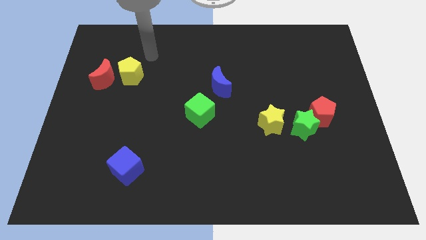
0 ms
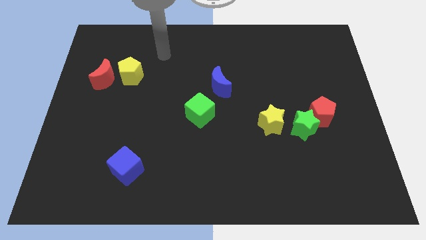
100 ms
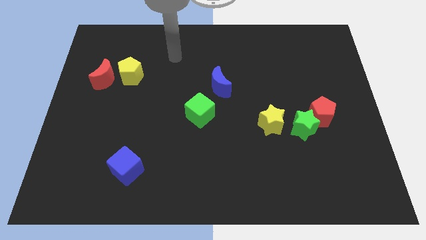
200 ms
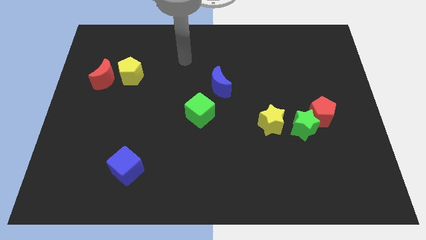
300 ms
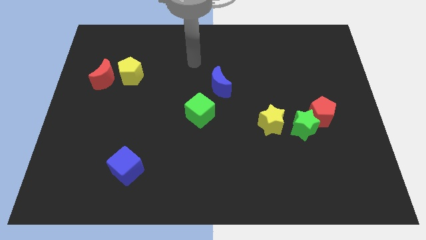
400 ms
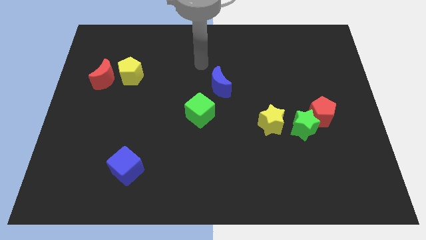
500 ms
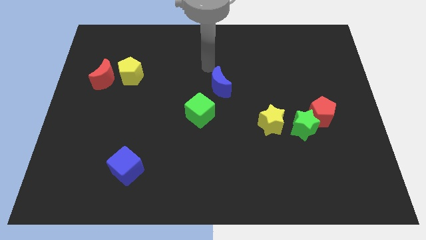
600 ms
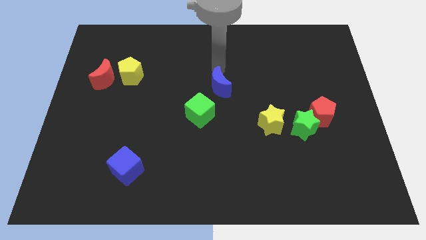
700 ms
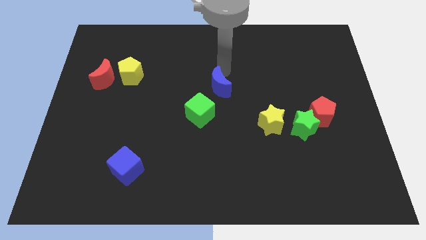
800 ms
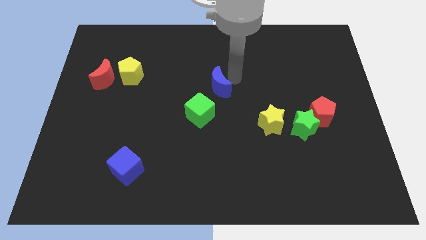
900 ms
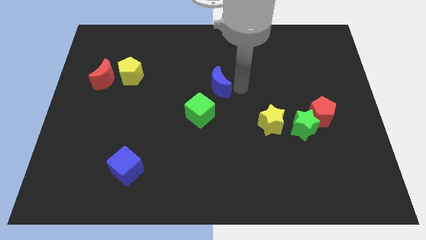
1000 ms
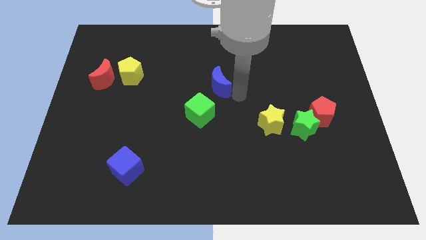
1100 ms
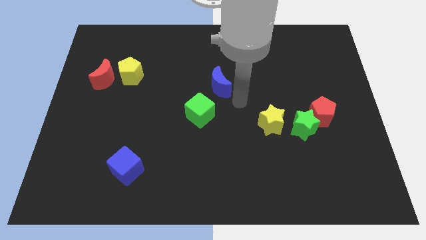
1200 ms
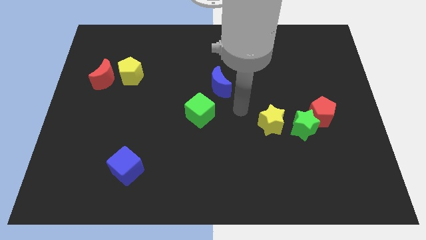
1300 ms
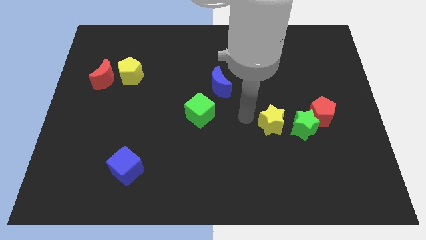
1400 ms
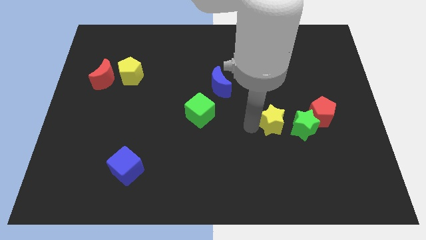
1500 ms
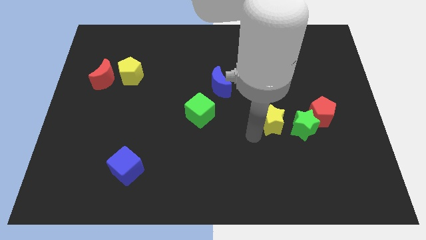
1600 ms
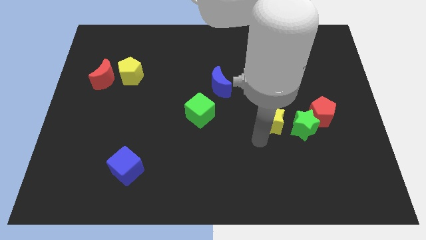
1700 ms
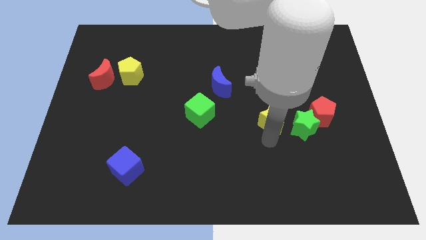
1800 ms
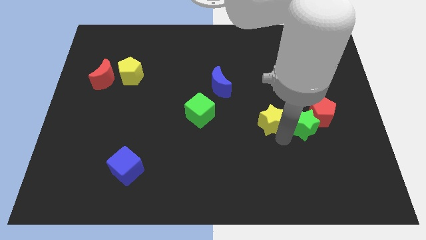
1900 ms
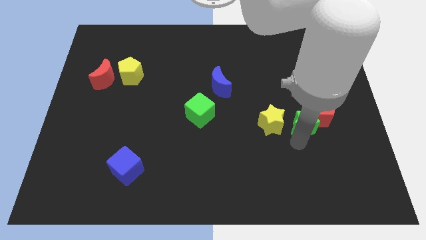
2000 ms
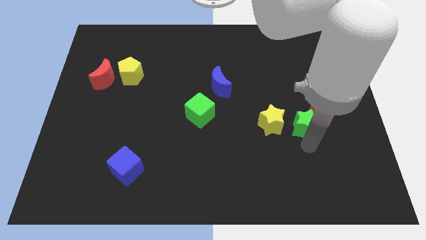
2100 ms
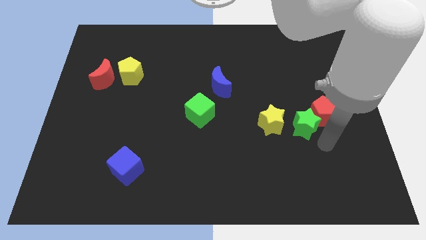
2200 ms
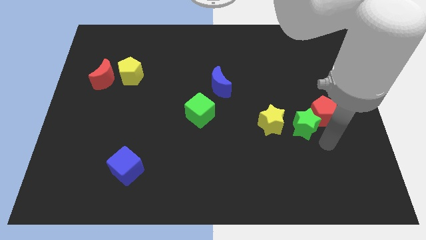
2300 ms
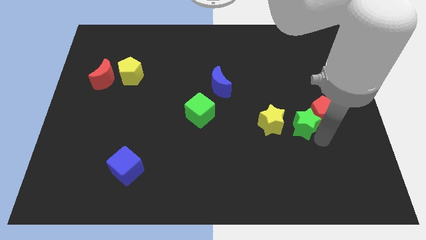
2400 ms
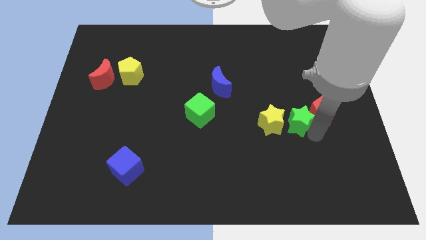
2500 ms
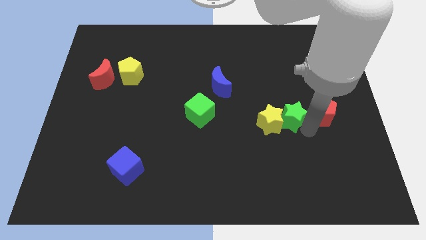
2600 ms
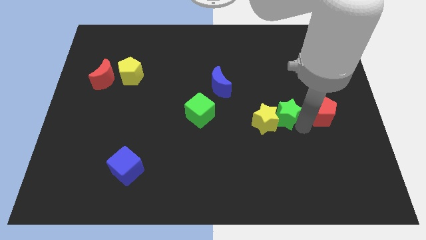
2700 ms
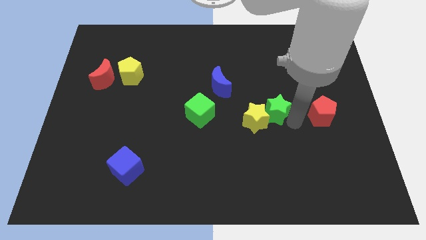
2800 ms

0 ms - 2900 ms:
push the green star up and then left a bit

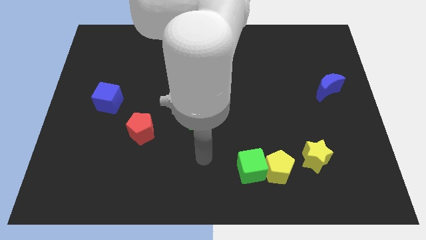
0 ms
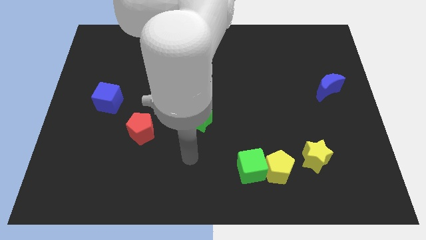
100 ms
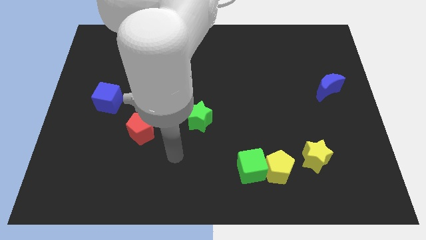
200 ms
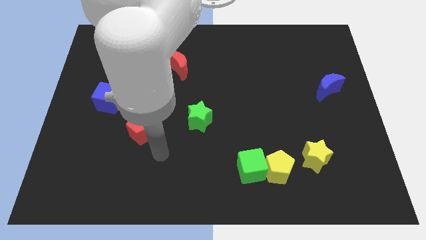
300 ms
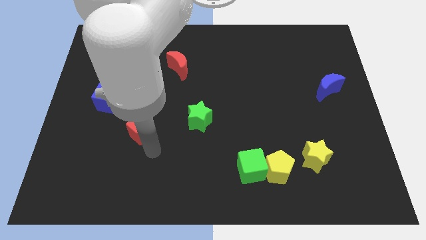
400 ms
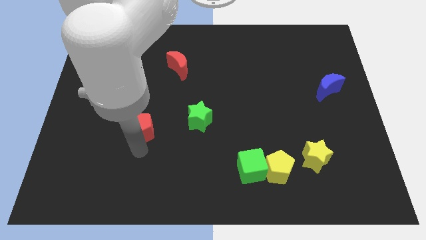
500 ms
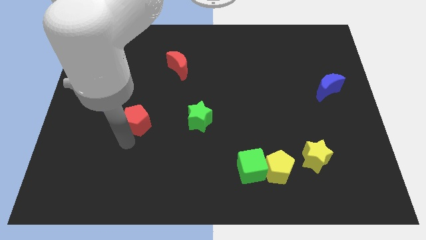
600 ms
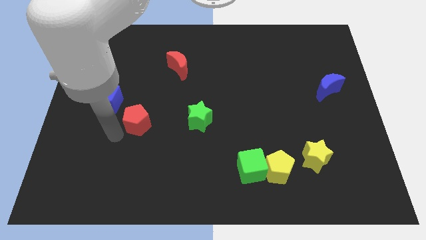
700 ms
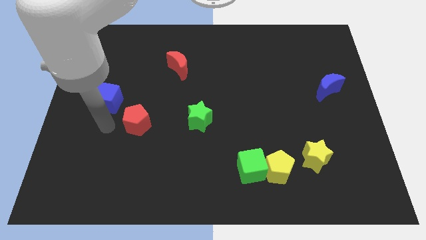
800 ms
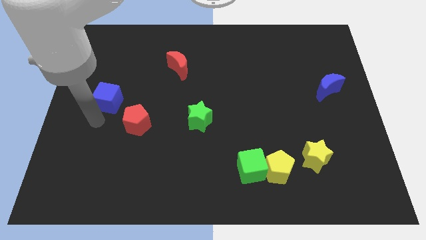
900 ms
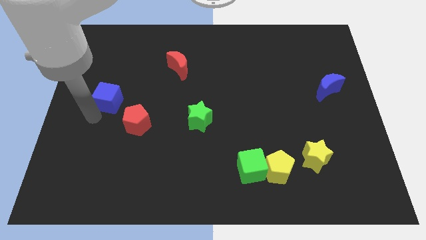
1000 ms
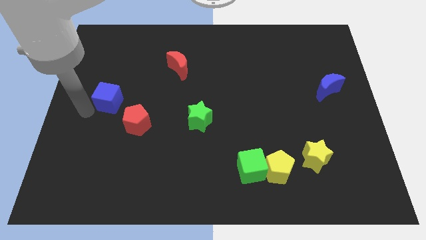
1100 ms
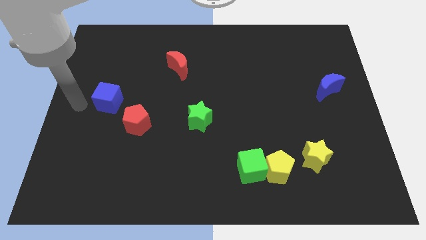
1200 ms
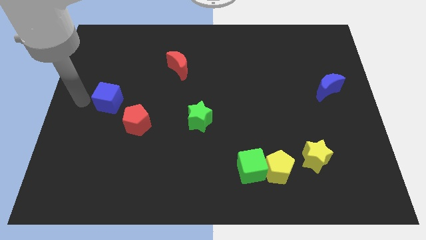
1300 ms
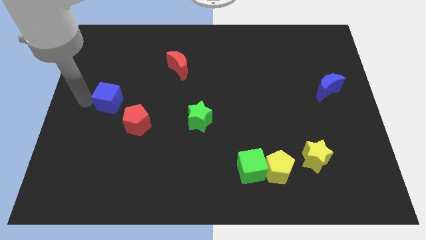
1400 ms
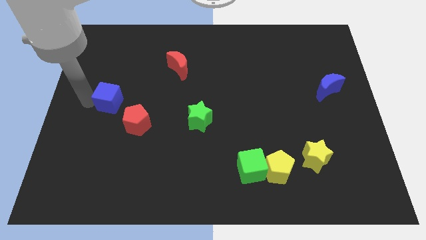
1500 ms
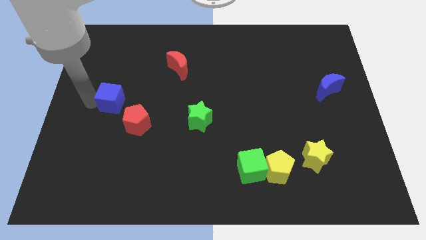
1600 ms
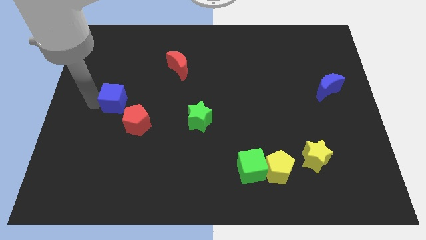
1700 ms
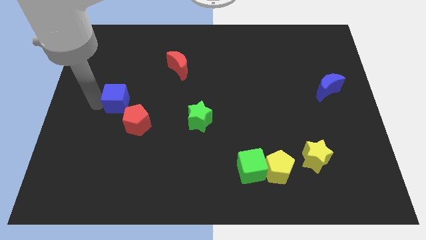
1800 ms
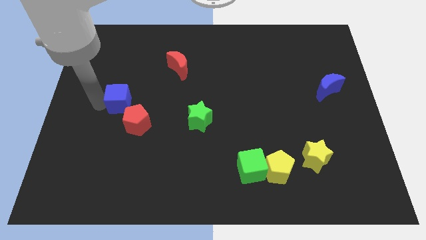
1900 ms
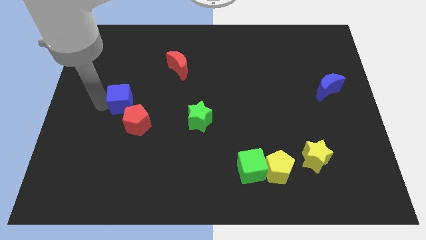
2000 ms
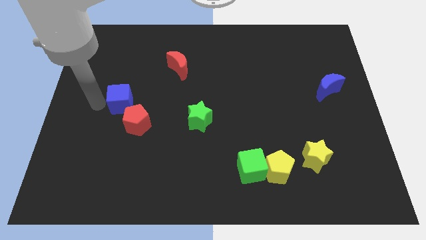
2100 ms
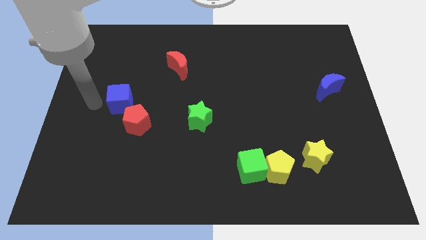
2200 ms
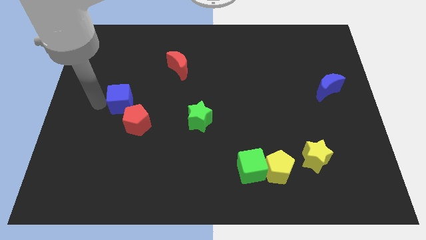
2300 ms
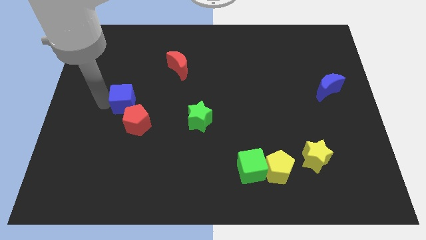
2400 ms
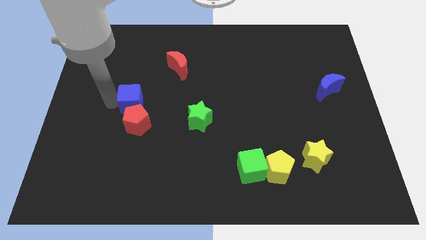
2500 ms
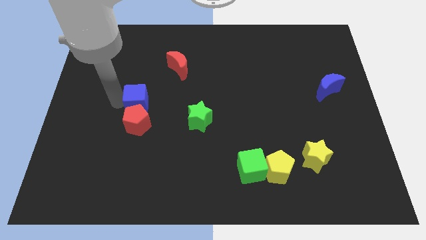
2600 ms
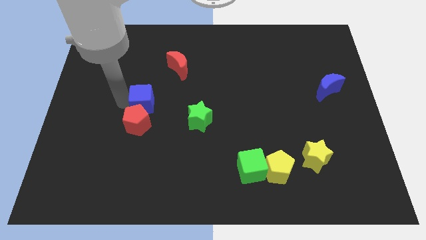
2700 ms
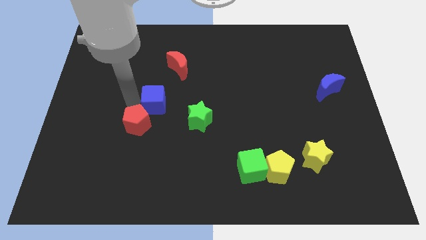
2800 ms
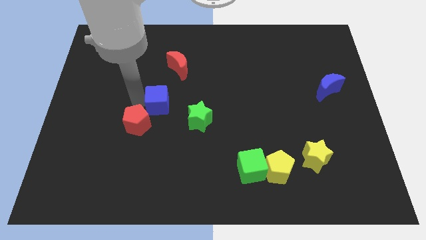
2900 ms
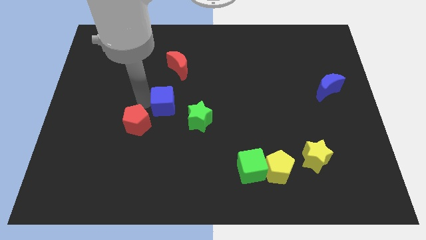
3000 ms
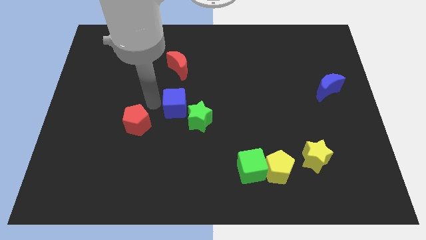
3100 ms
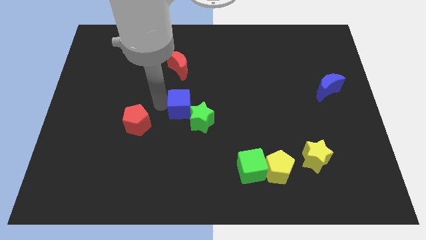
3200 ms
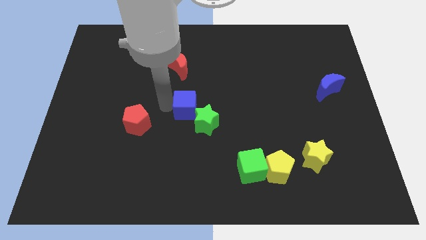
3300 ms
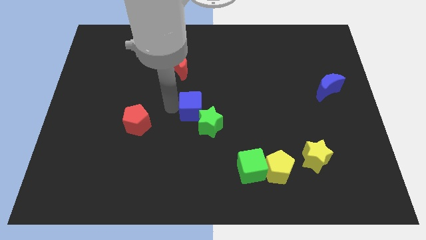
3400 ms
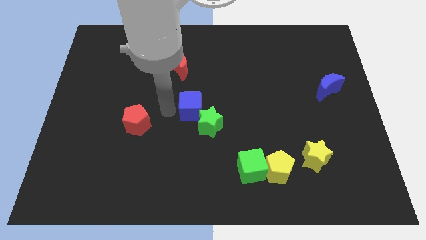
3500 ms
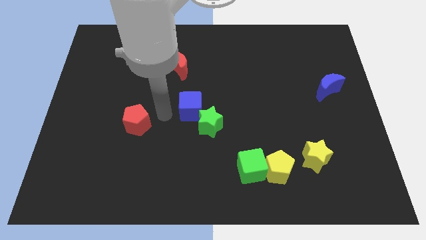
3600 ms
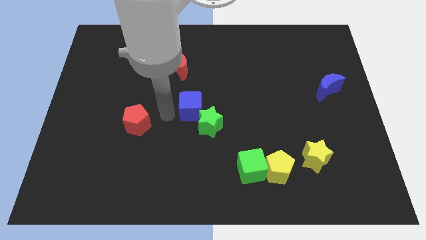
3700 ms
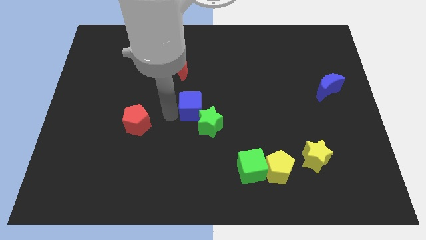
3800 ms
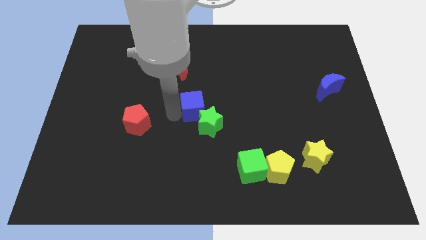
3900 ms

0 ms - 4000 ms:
slide the blue cube right

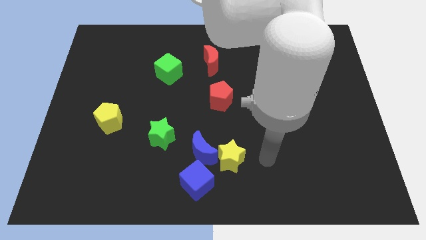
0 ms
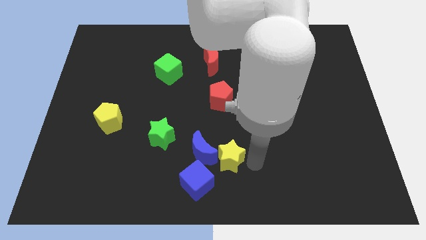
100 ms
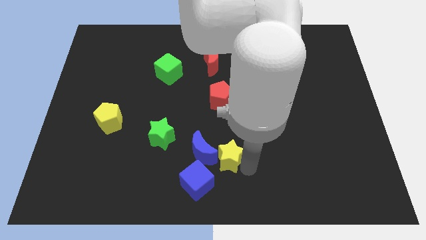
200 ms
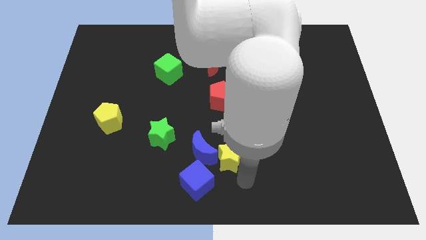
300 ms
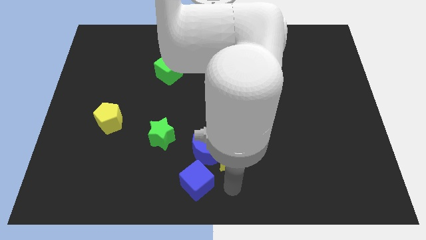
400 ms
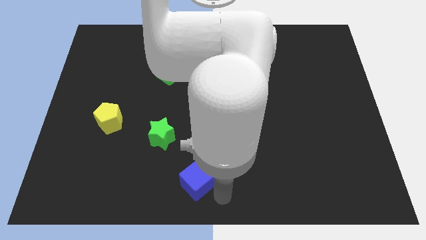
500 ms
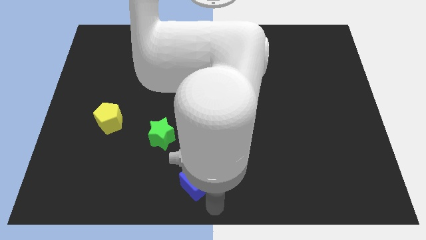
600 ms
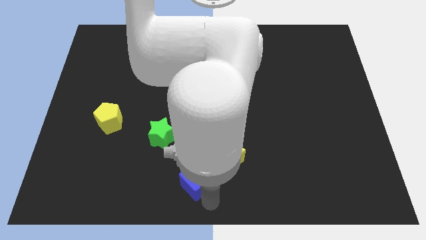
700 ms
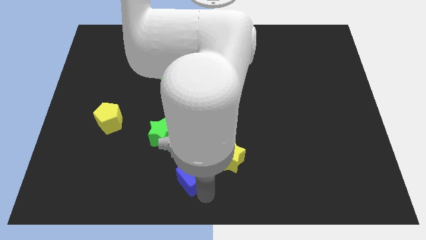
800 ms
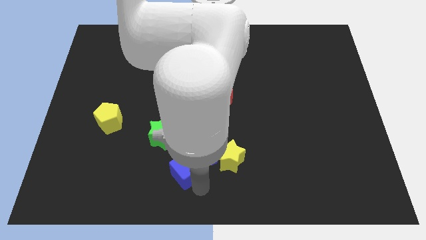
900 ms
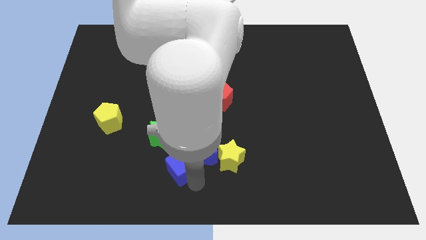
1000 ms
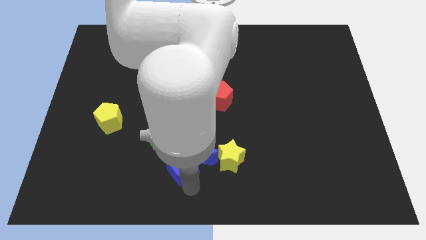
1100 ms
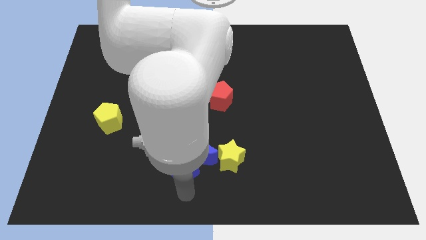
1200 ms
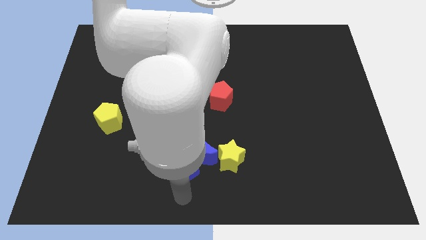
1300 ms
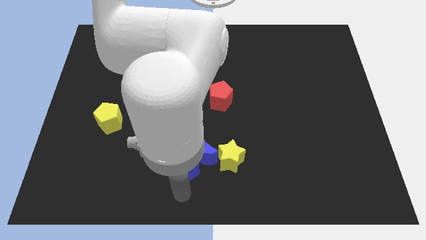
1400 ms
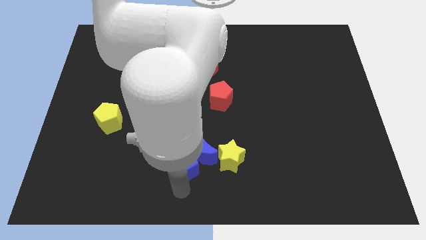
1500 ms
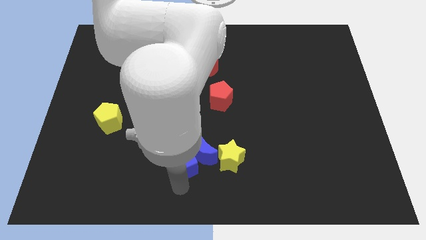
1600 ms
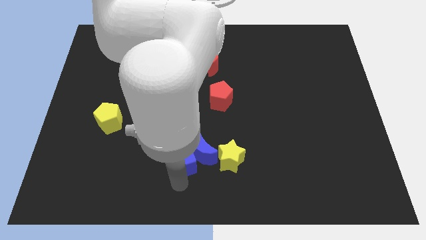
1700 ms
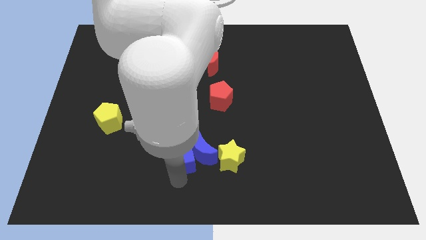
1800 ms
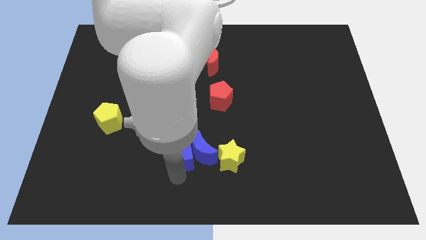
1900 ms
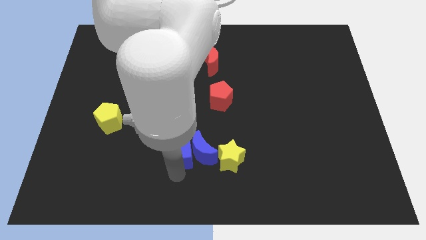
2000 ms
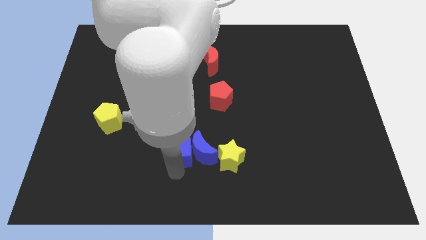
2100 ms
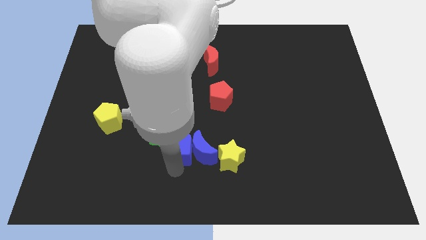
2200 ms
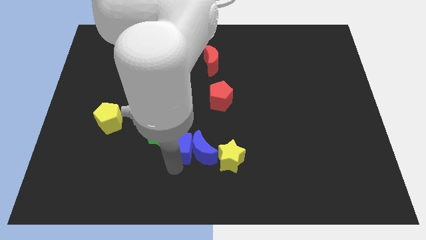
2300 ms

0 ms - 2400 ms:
slide the blue cube somewhat up
